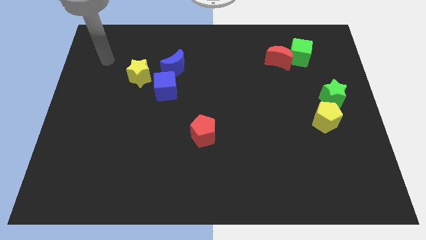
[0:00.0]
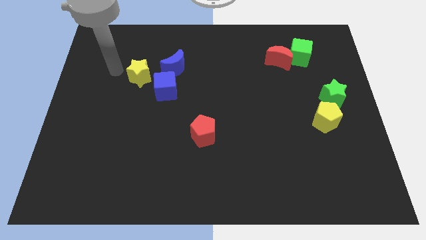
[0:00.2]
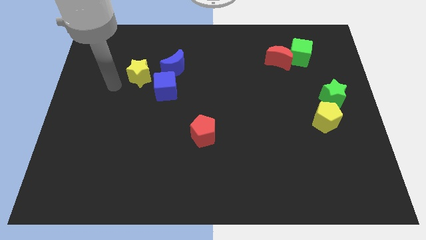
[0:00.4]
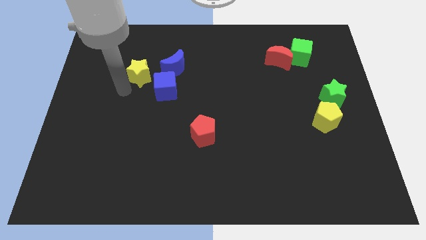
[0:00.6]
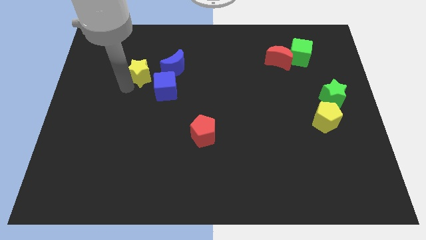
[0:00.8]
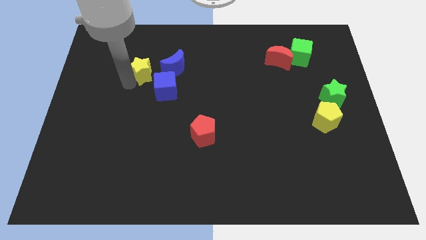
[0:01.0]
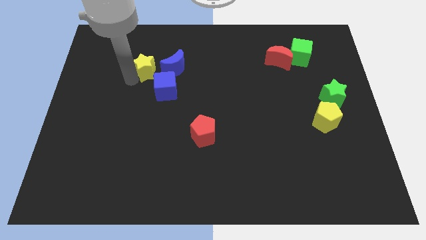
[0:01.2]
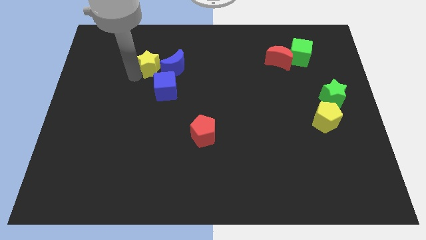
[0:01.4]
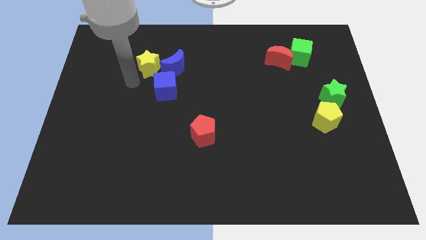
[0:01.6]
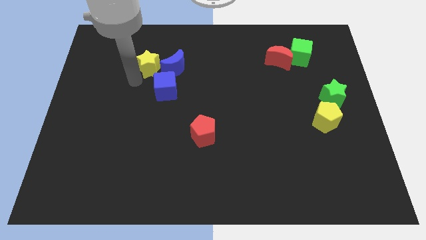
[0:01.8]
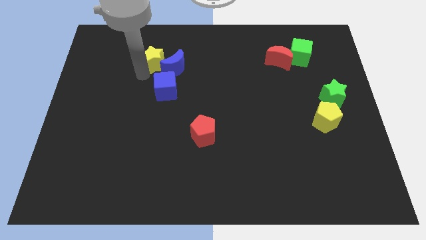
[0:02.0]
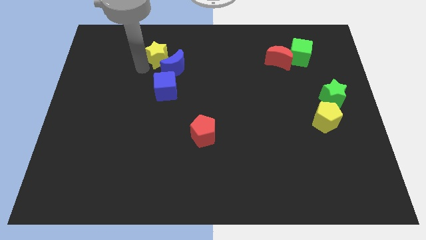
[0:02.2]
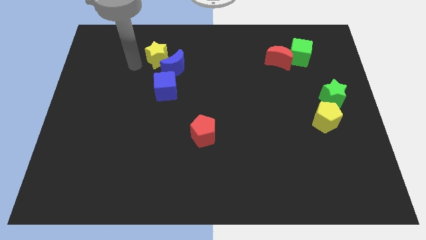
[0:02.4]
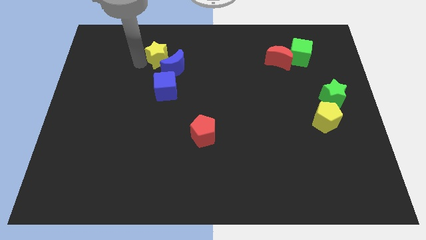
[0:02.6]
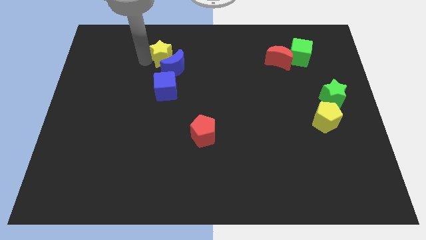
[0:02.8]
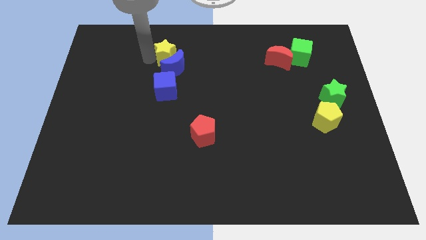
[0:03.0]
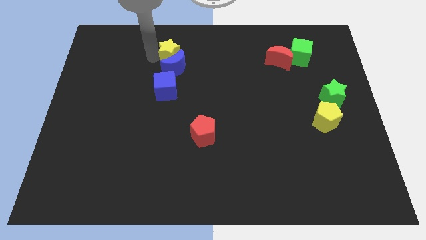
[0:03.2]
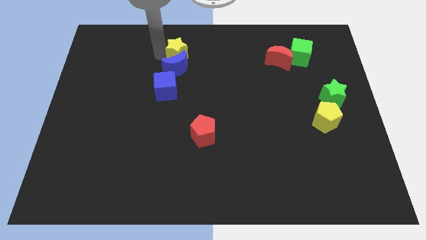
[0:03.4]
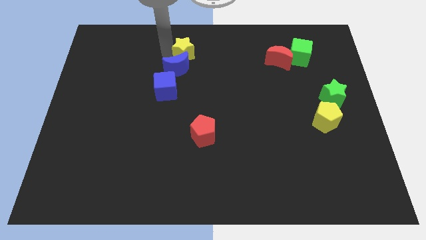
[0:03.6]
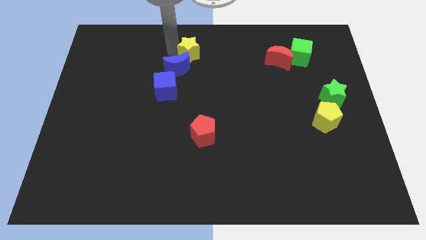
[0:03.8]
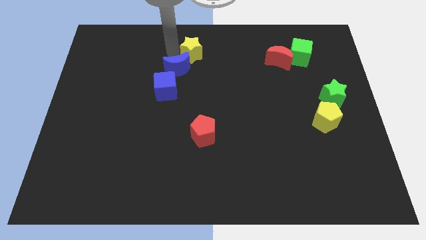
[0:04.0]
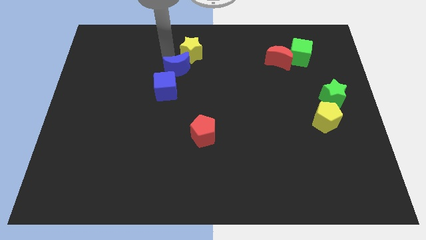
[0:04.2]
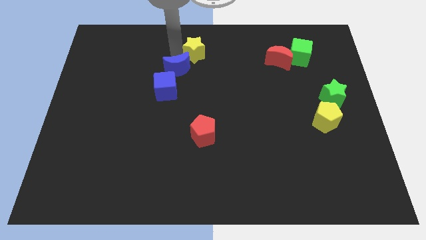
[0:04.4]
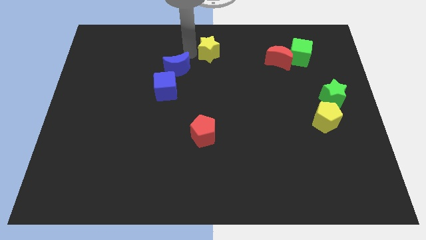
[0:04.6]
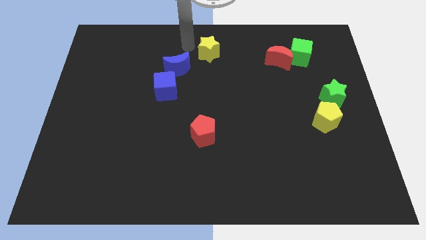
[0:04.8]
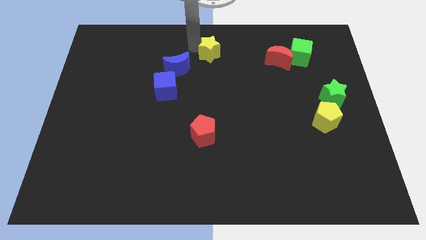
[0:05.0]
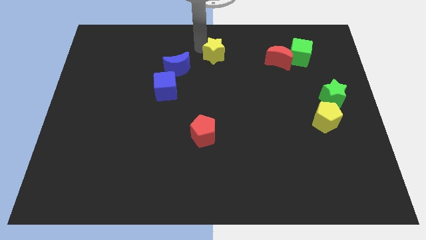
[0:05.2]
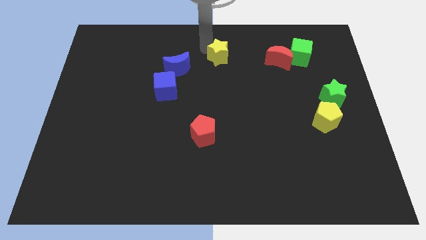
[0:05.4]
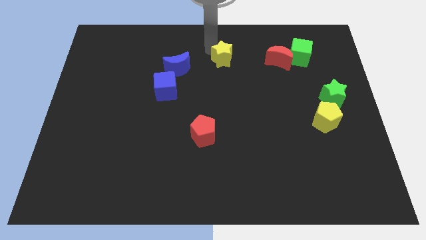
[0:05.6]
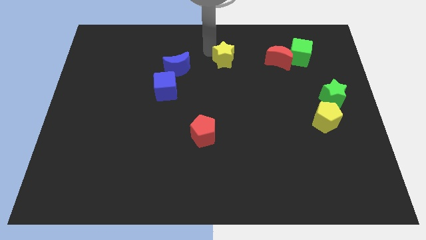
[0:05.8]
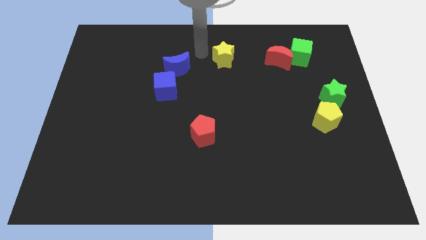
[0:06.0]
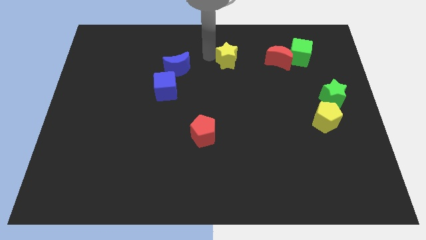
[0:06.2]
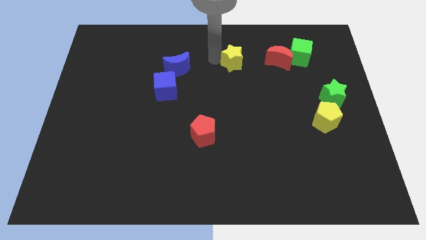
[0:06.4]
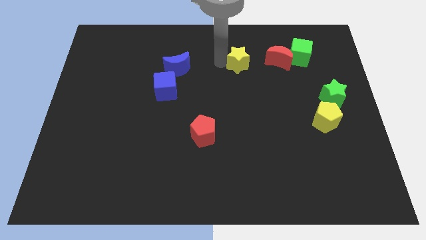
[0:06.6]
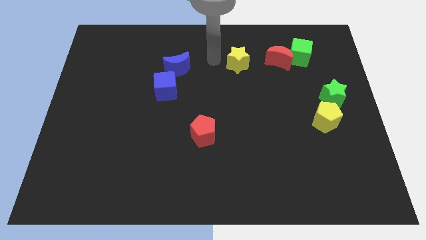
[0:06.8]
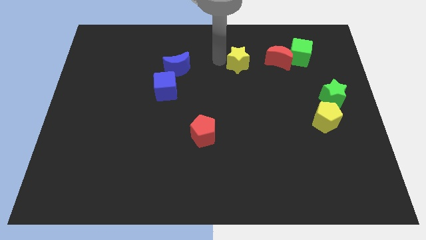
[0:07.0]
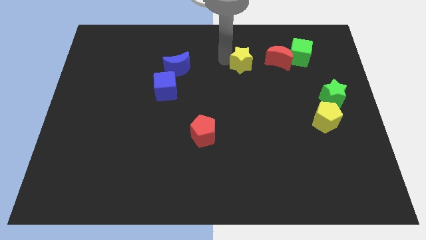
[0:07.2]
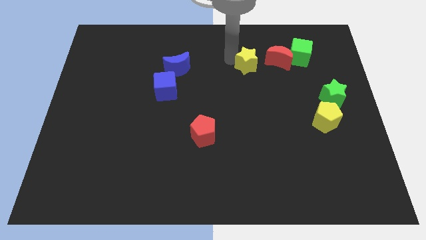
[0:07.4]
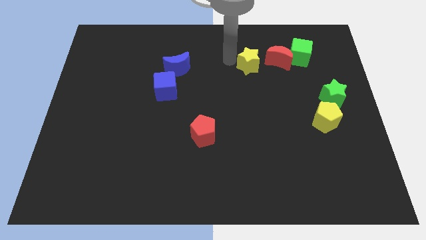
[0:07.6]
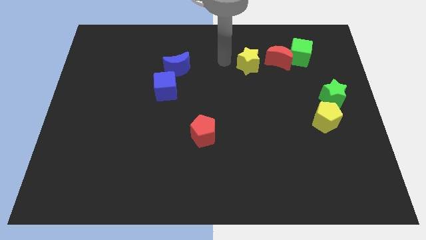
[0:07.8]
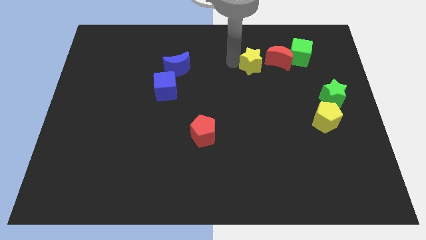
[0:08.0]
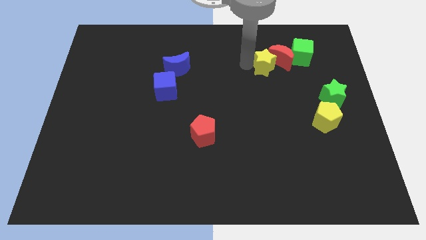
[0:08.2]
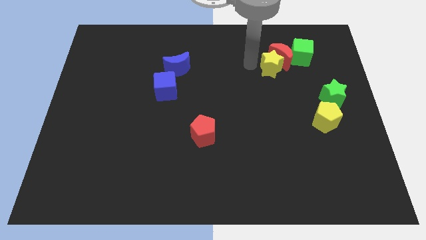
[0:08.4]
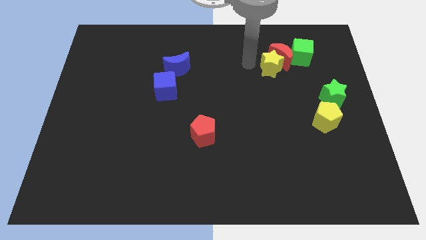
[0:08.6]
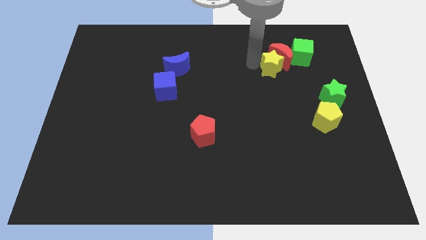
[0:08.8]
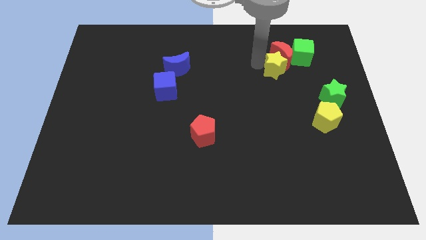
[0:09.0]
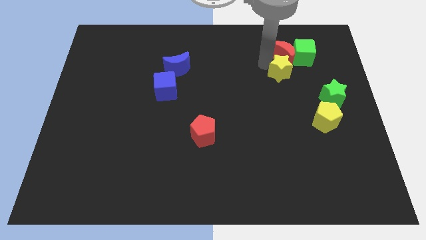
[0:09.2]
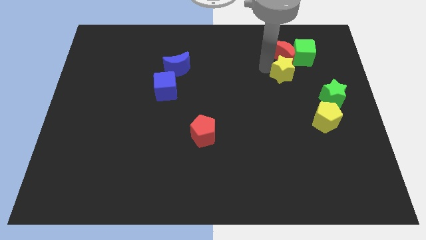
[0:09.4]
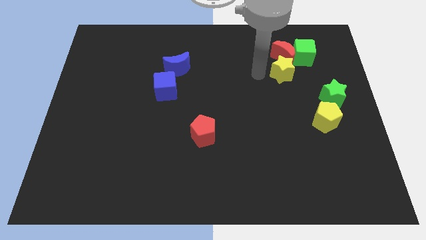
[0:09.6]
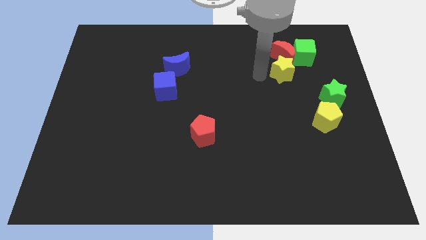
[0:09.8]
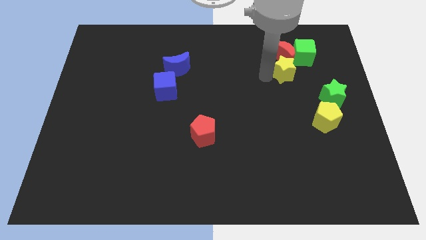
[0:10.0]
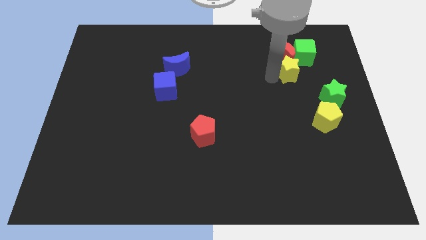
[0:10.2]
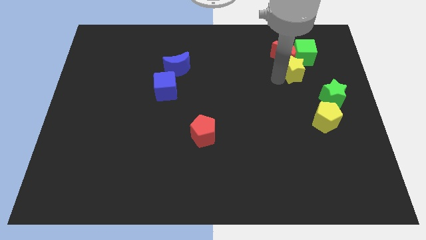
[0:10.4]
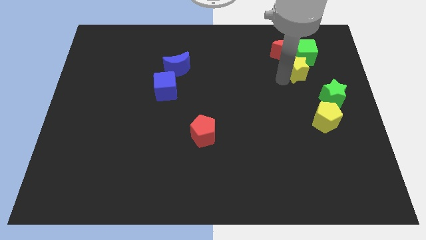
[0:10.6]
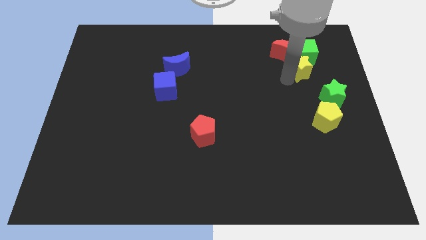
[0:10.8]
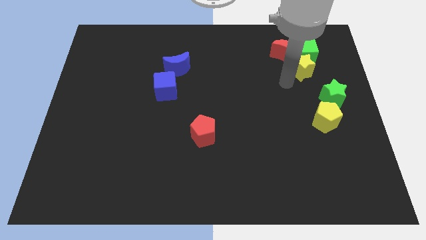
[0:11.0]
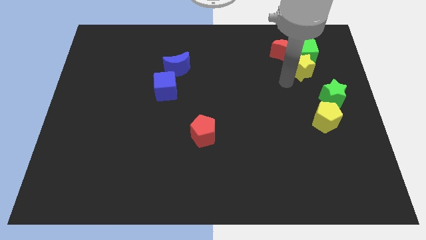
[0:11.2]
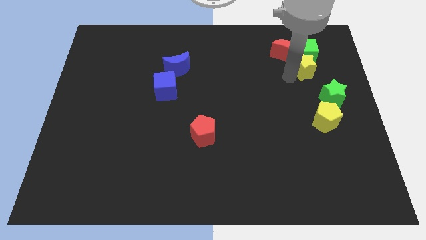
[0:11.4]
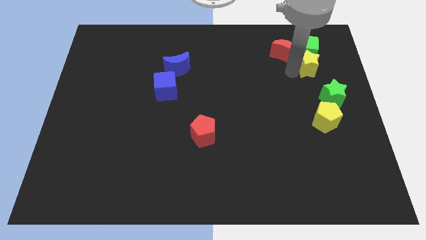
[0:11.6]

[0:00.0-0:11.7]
put the yellow star just right of the red moon

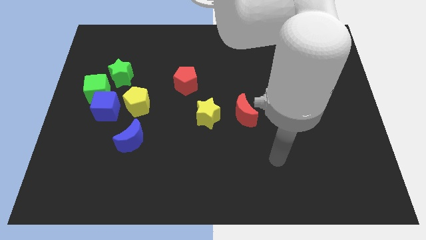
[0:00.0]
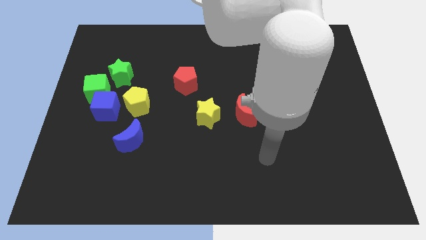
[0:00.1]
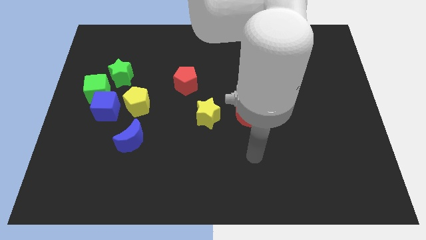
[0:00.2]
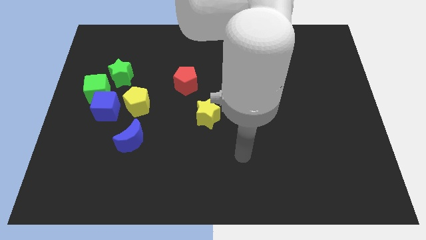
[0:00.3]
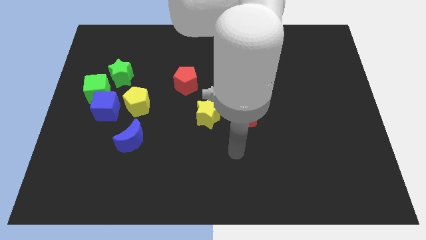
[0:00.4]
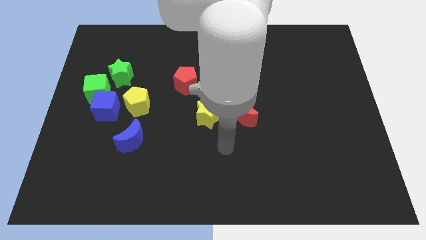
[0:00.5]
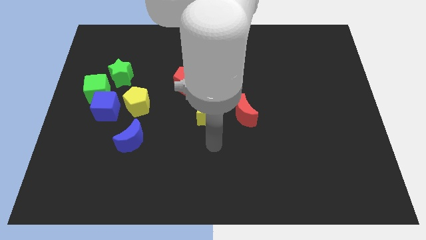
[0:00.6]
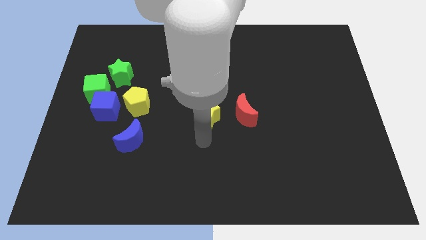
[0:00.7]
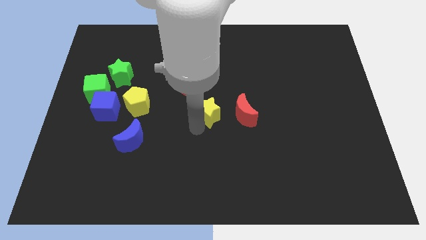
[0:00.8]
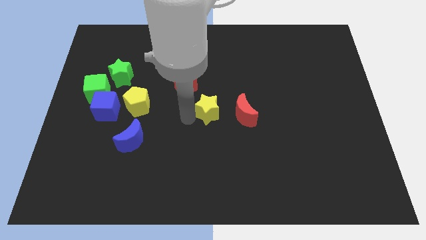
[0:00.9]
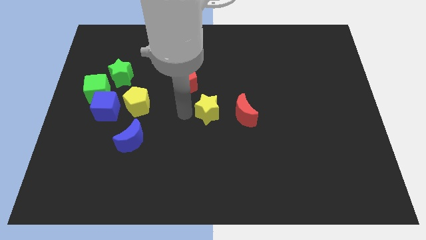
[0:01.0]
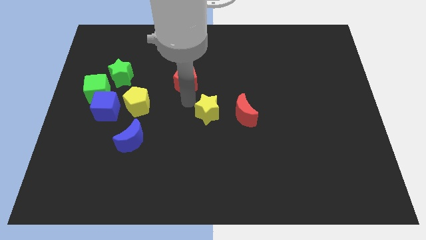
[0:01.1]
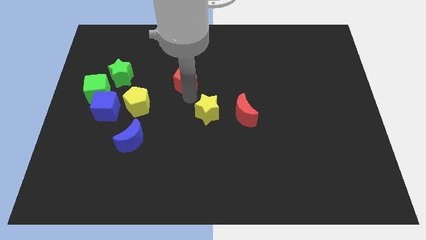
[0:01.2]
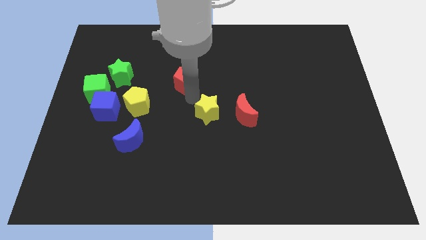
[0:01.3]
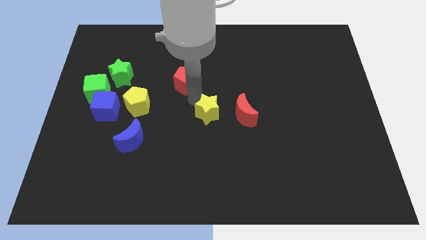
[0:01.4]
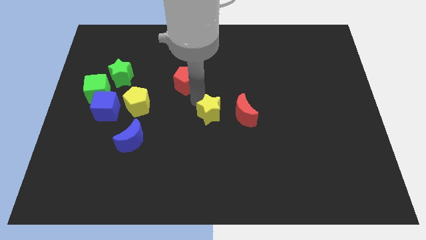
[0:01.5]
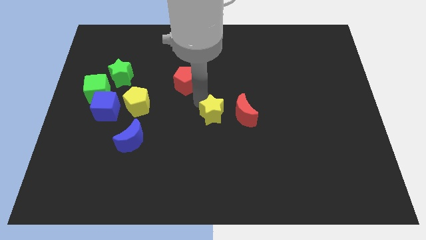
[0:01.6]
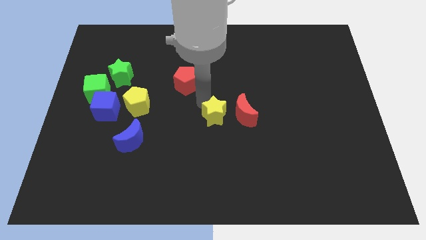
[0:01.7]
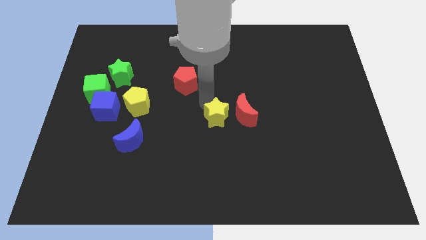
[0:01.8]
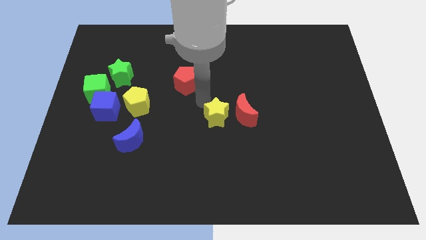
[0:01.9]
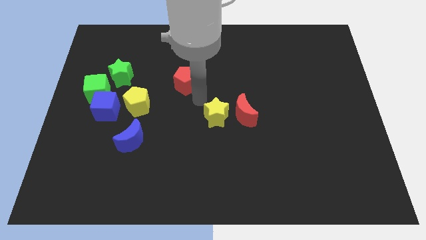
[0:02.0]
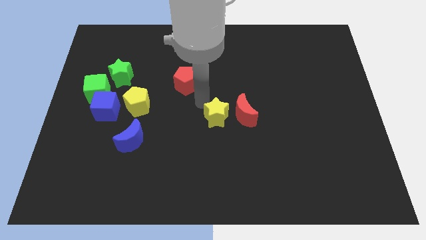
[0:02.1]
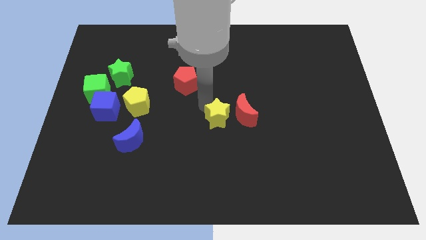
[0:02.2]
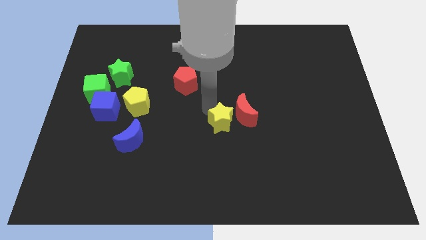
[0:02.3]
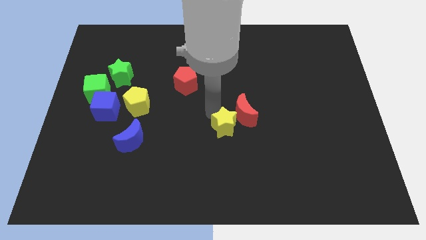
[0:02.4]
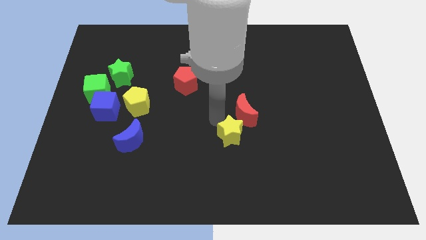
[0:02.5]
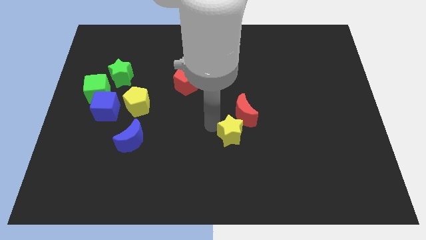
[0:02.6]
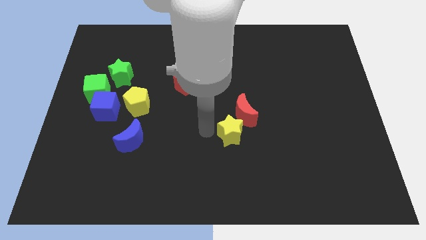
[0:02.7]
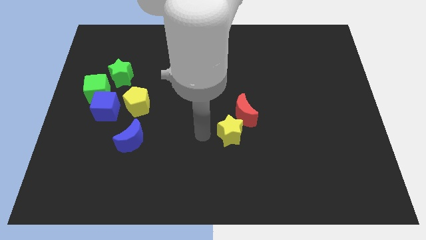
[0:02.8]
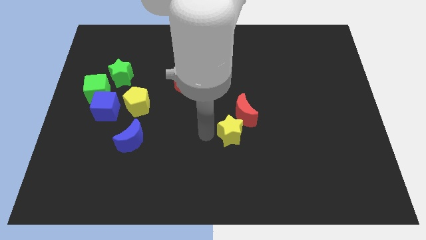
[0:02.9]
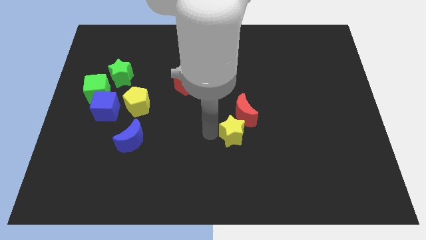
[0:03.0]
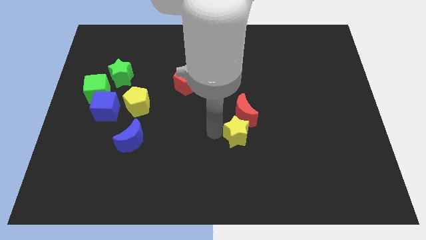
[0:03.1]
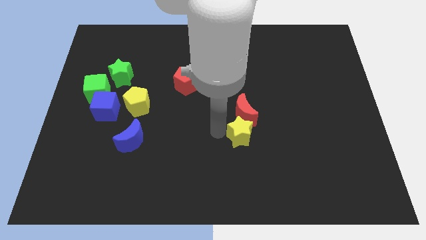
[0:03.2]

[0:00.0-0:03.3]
slide the yellow star diagonally down and to the right of the red moon
